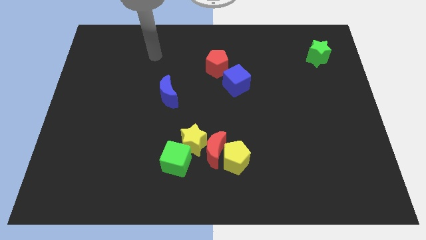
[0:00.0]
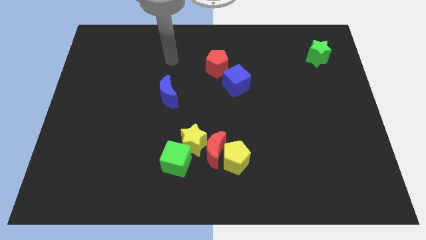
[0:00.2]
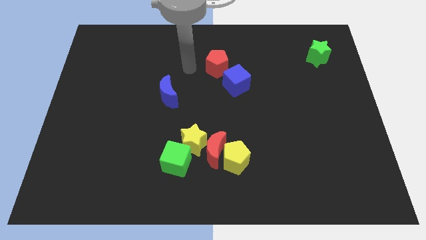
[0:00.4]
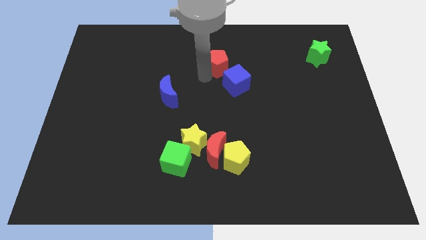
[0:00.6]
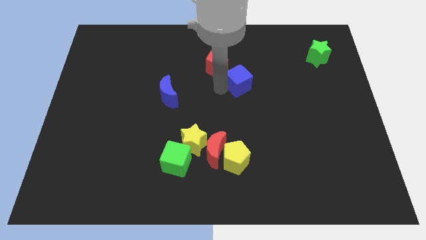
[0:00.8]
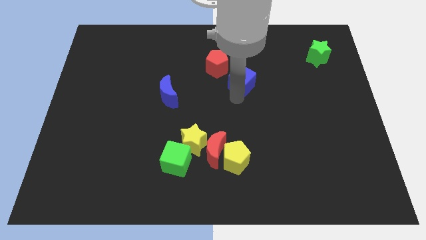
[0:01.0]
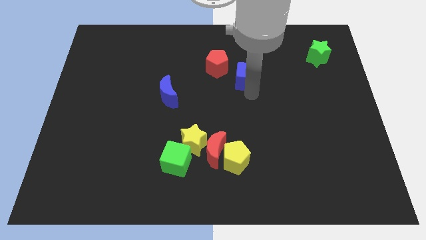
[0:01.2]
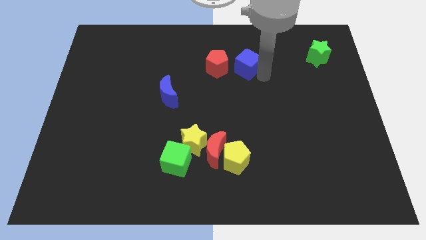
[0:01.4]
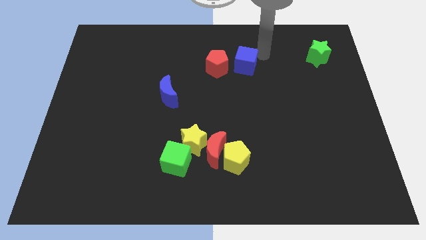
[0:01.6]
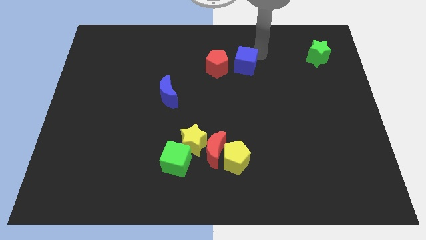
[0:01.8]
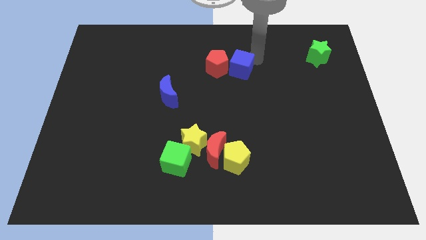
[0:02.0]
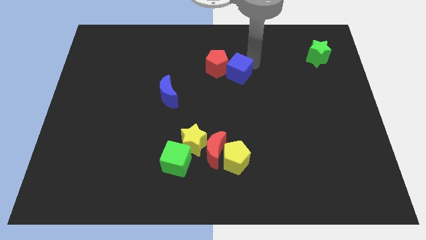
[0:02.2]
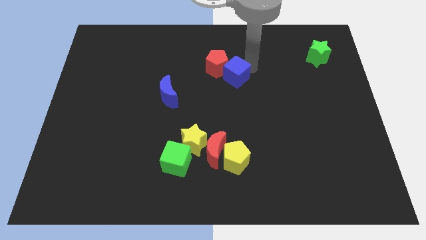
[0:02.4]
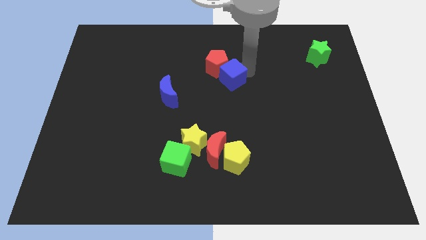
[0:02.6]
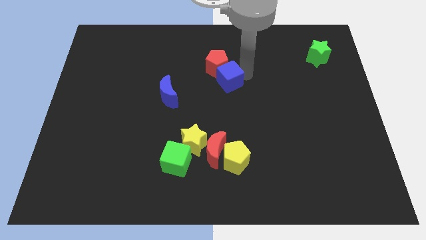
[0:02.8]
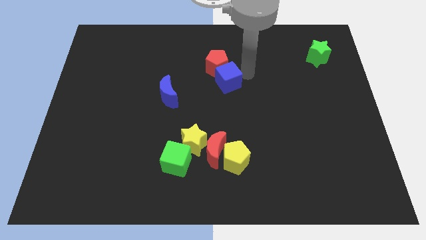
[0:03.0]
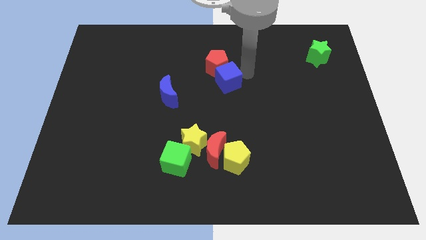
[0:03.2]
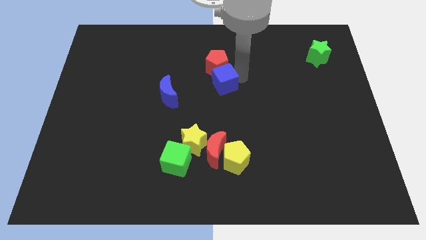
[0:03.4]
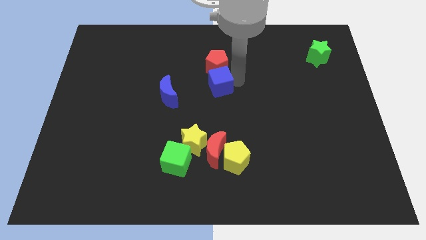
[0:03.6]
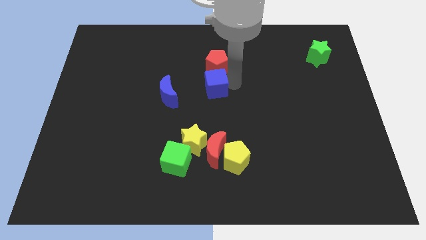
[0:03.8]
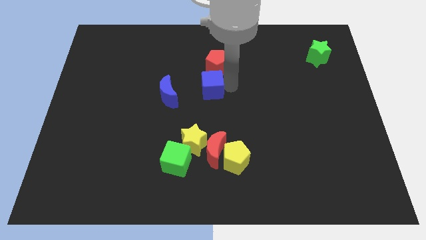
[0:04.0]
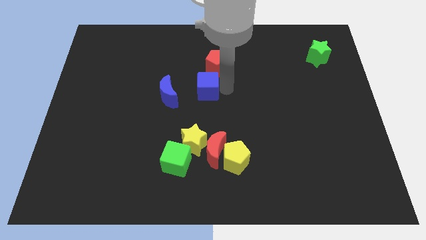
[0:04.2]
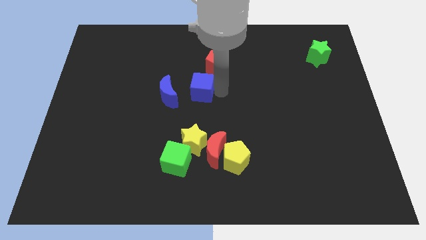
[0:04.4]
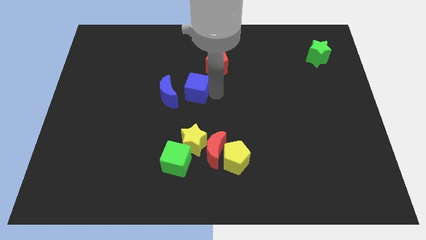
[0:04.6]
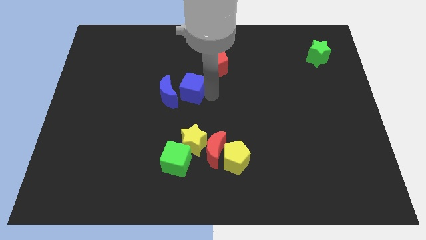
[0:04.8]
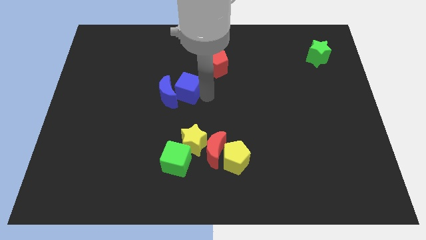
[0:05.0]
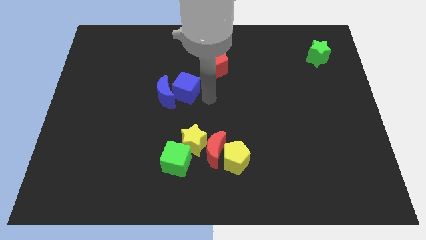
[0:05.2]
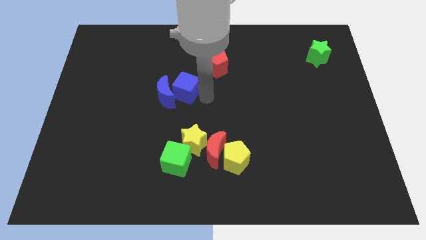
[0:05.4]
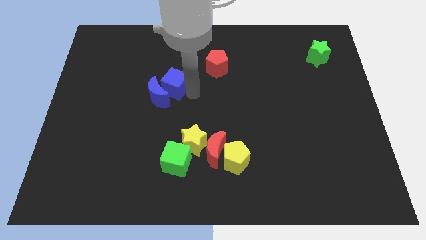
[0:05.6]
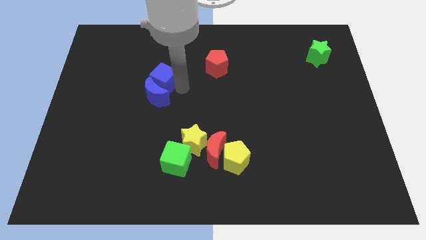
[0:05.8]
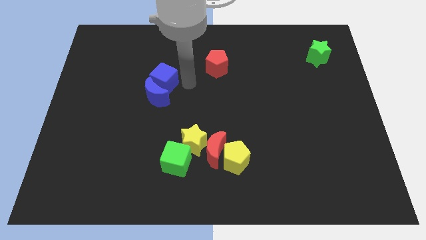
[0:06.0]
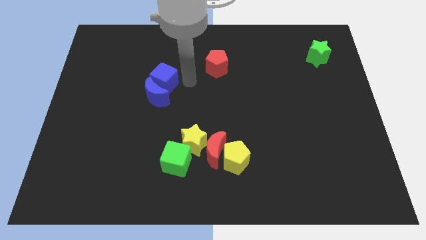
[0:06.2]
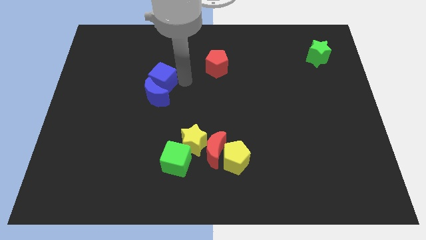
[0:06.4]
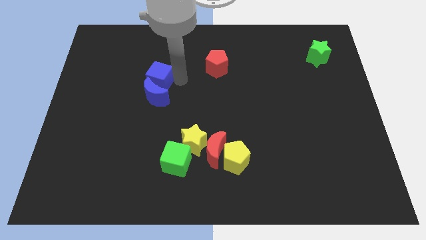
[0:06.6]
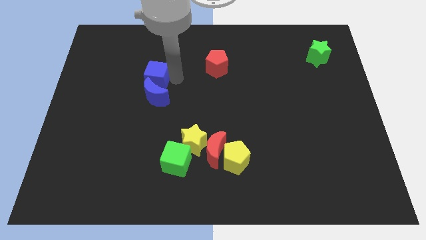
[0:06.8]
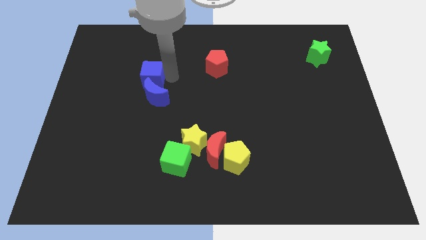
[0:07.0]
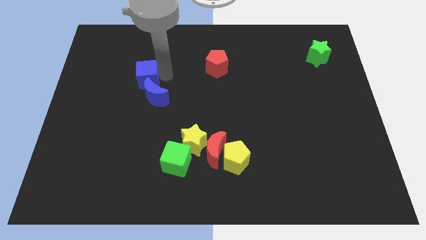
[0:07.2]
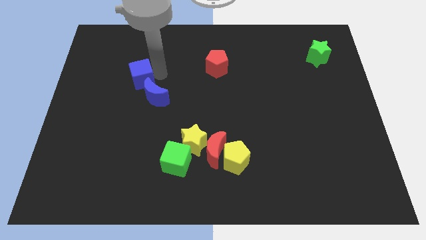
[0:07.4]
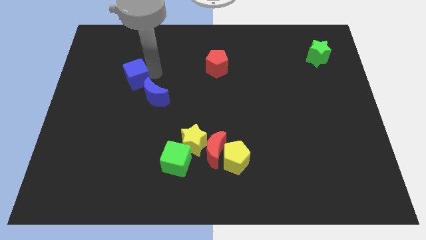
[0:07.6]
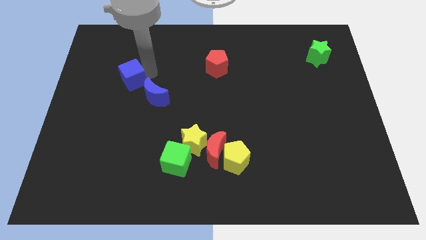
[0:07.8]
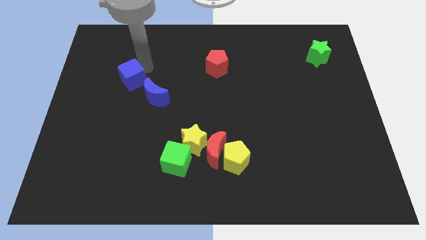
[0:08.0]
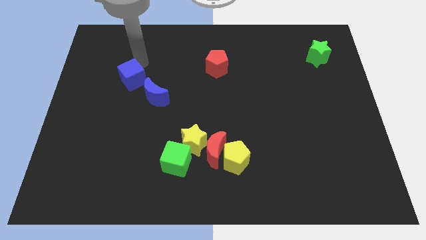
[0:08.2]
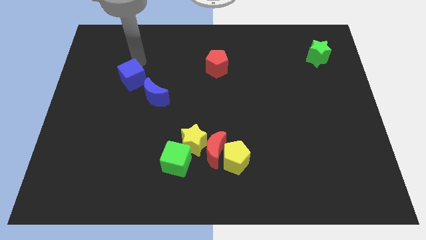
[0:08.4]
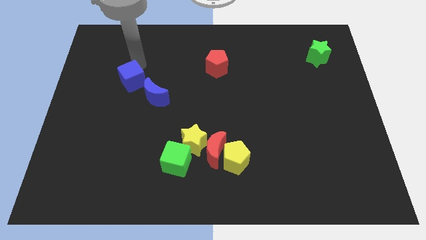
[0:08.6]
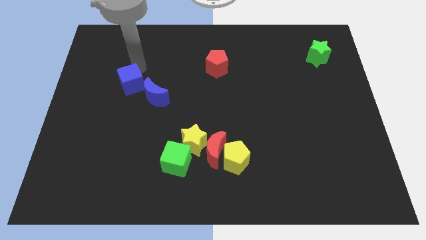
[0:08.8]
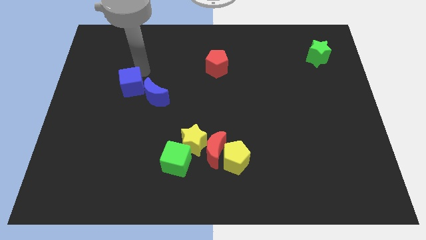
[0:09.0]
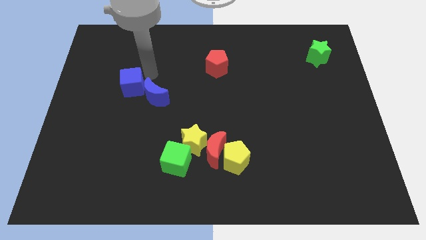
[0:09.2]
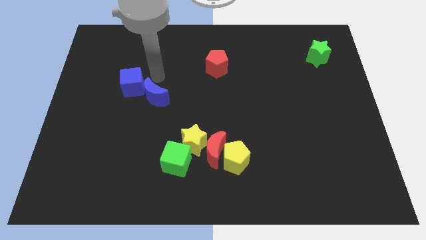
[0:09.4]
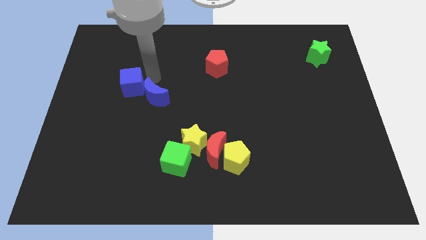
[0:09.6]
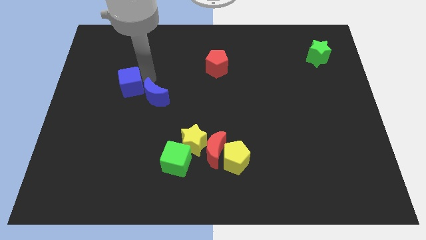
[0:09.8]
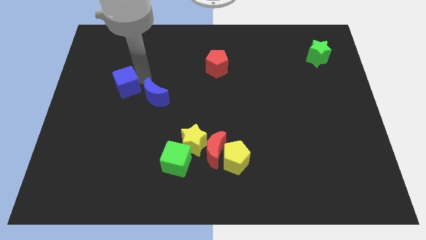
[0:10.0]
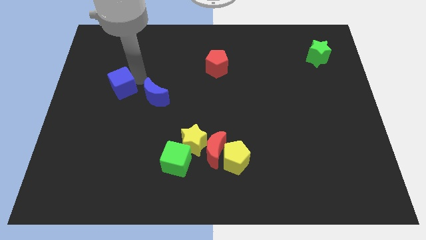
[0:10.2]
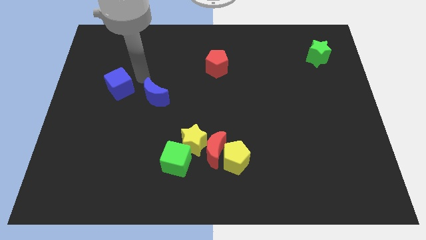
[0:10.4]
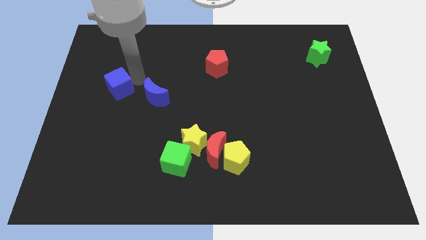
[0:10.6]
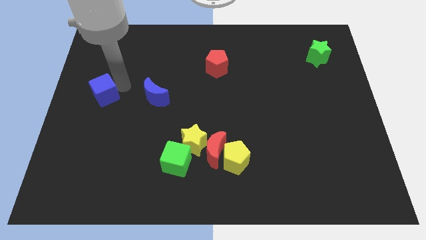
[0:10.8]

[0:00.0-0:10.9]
move the blue cube to the left side of the board
